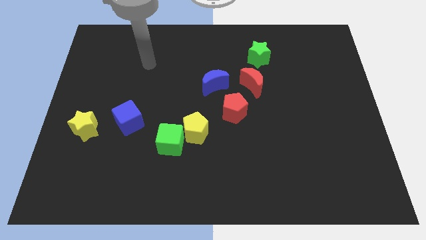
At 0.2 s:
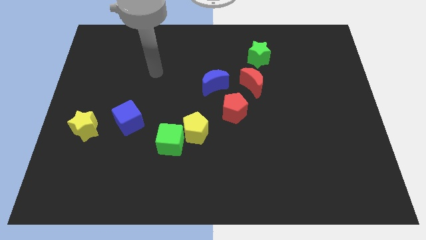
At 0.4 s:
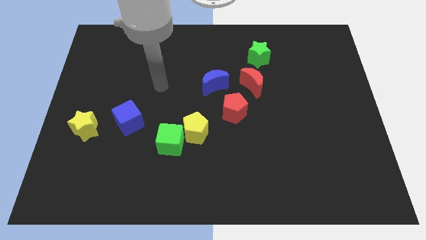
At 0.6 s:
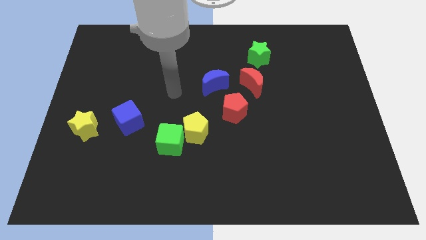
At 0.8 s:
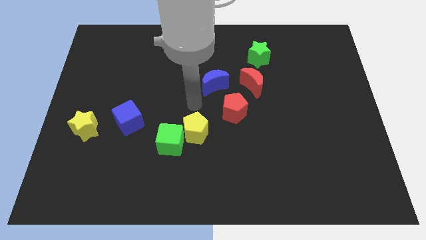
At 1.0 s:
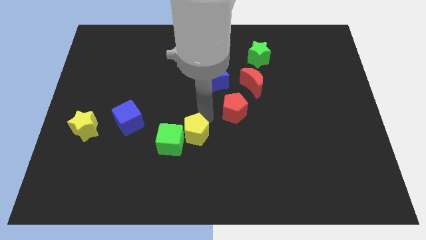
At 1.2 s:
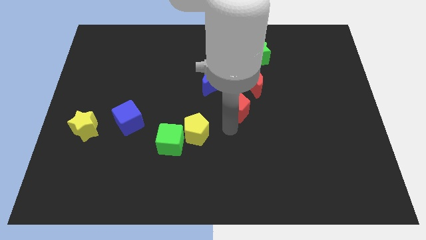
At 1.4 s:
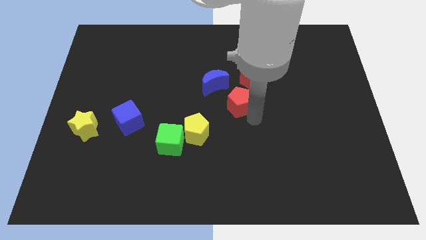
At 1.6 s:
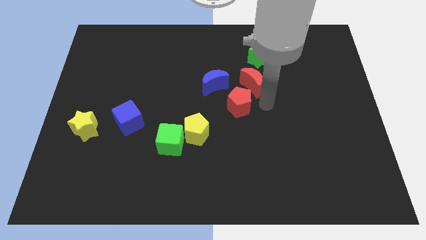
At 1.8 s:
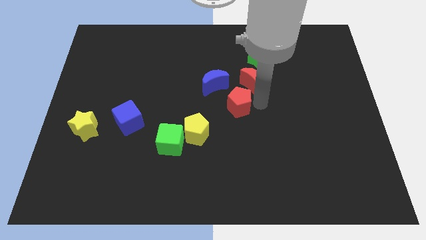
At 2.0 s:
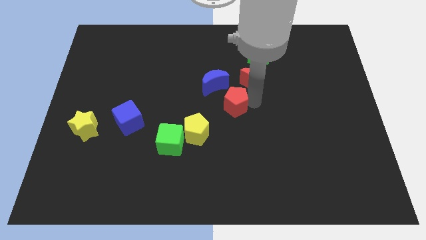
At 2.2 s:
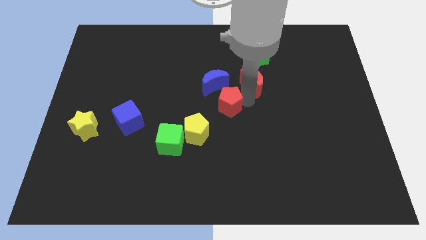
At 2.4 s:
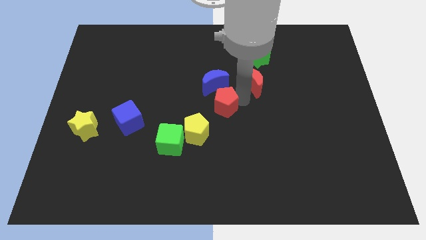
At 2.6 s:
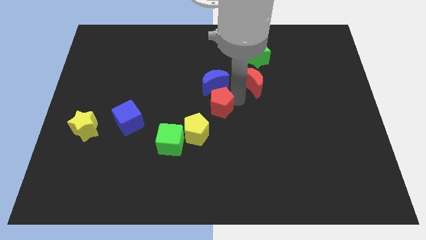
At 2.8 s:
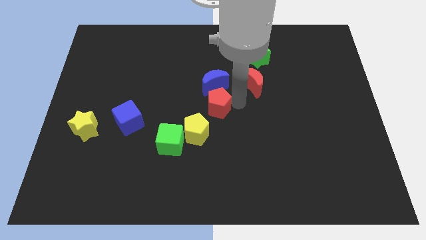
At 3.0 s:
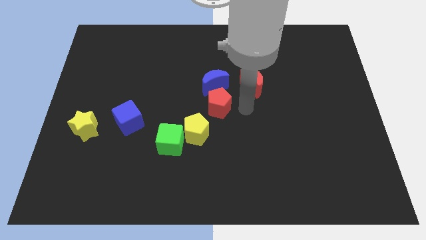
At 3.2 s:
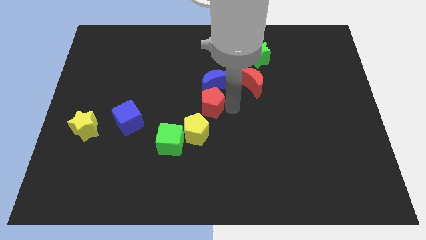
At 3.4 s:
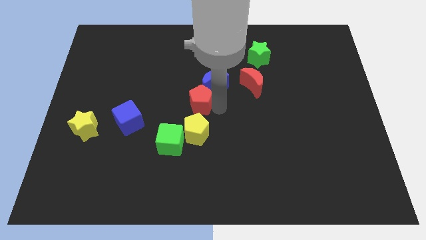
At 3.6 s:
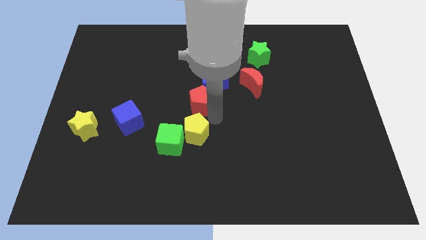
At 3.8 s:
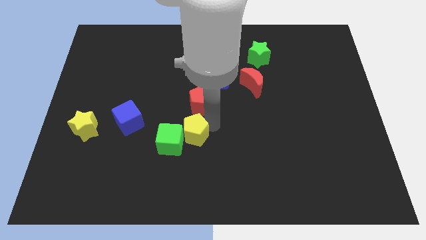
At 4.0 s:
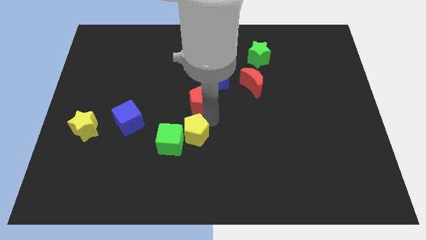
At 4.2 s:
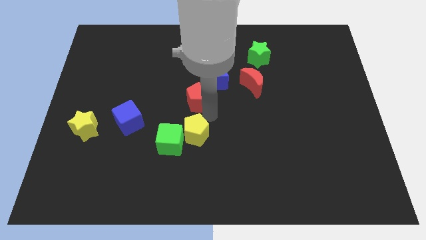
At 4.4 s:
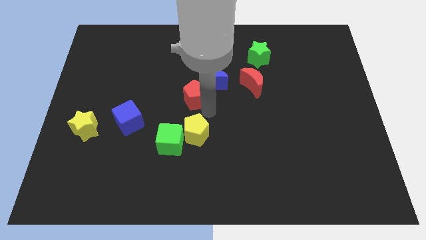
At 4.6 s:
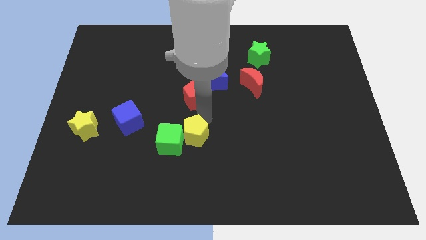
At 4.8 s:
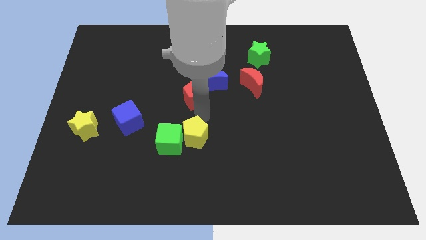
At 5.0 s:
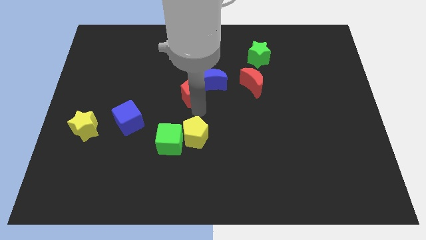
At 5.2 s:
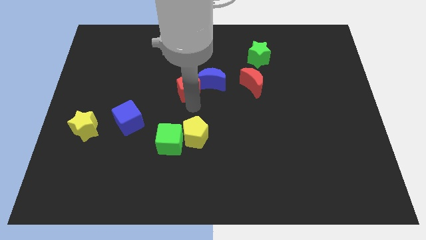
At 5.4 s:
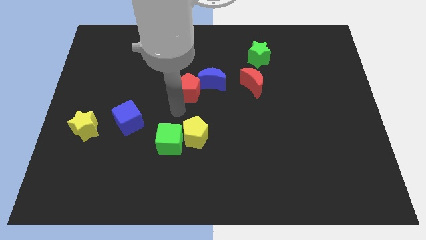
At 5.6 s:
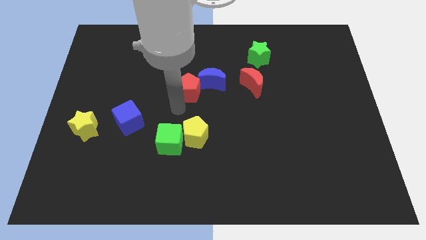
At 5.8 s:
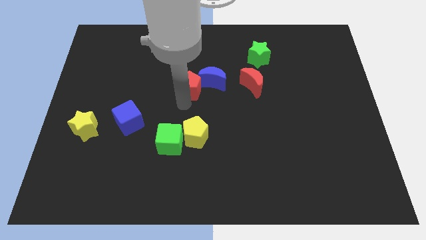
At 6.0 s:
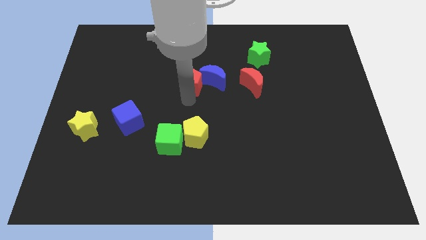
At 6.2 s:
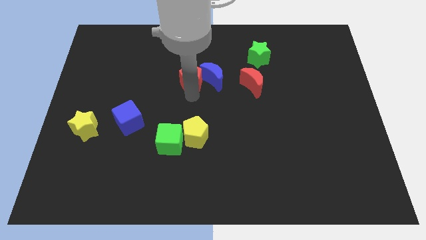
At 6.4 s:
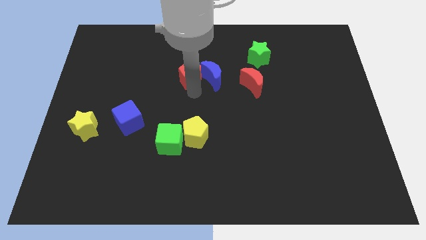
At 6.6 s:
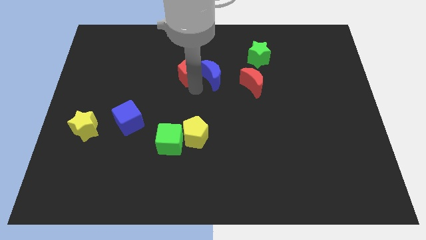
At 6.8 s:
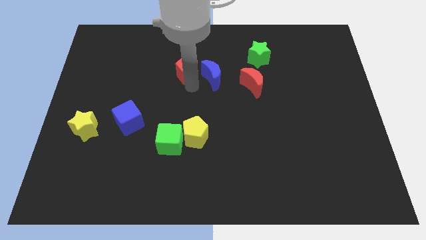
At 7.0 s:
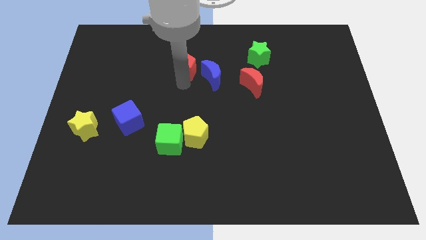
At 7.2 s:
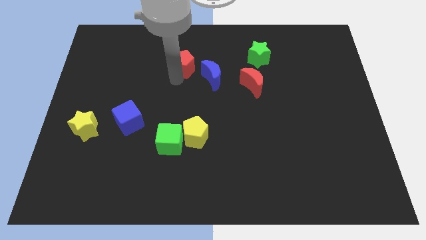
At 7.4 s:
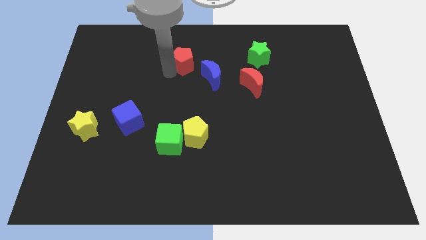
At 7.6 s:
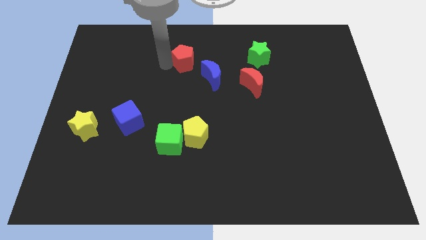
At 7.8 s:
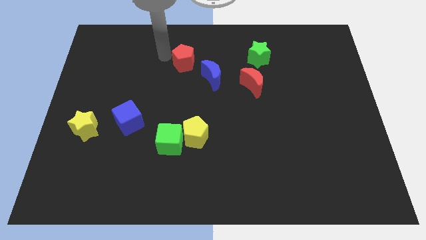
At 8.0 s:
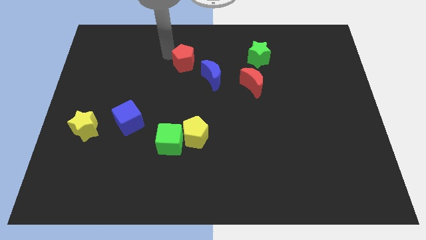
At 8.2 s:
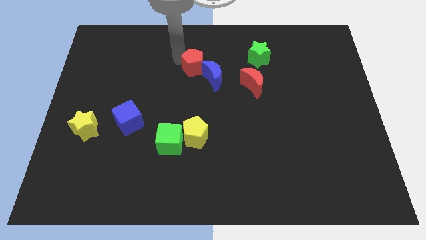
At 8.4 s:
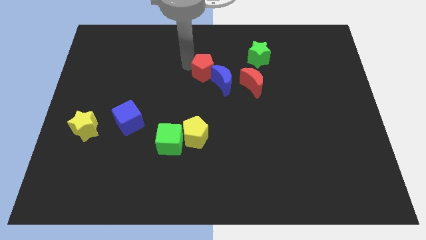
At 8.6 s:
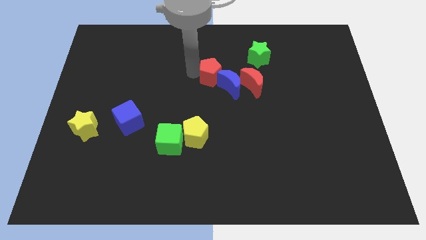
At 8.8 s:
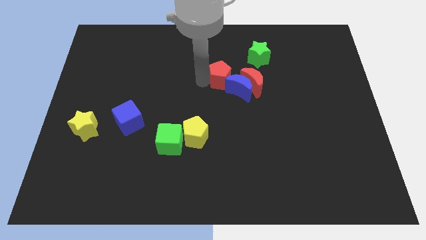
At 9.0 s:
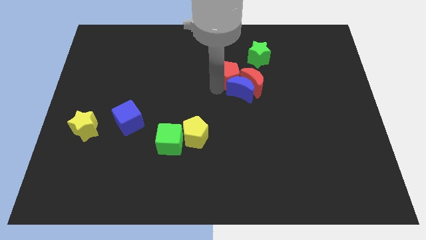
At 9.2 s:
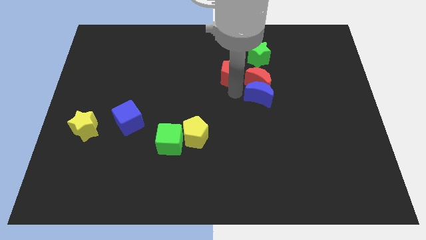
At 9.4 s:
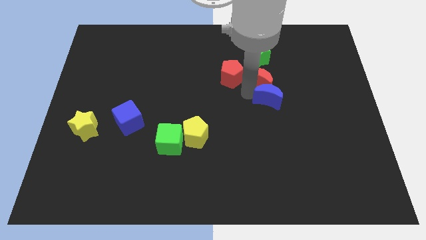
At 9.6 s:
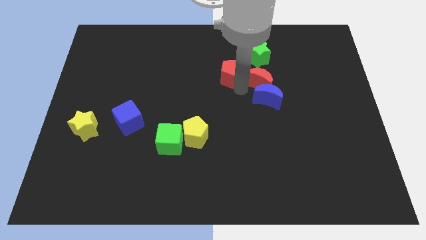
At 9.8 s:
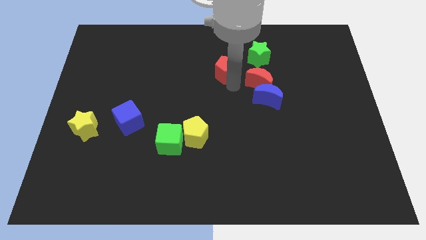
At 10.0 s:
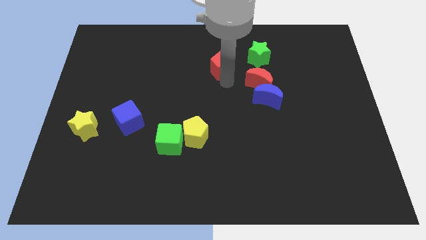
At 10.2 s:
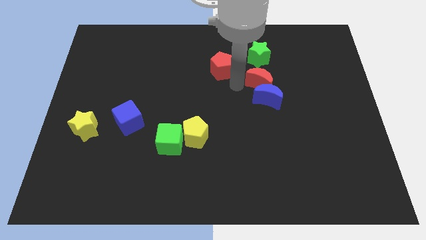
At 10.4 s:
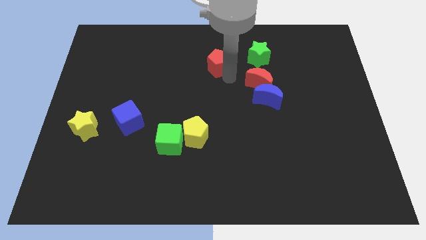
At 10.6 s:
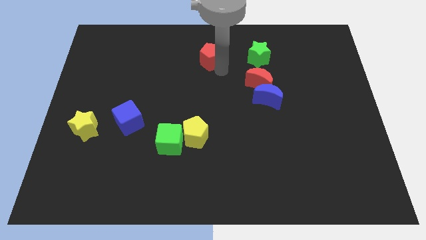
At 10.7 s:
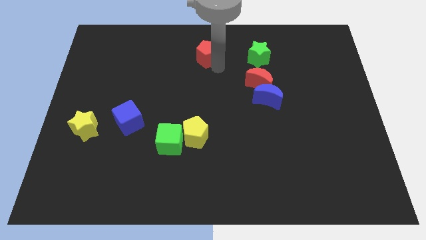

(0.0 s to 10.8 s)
push the red pentagon to the towards your base

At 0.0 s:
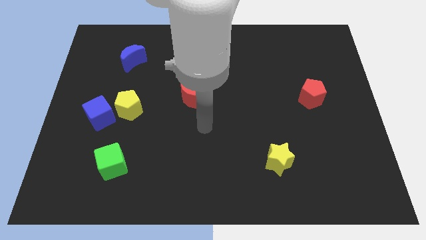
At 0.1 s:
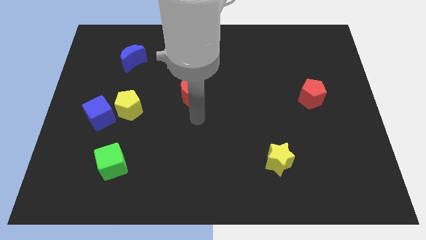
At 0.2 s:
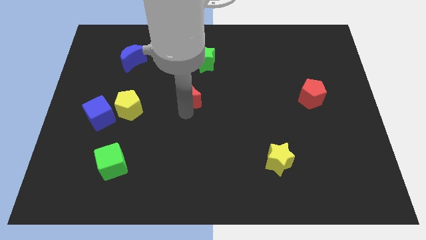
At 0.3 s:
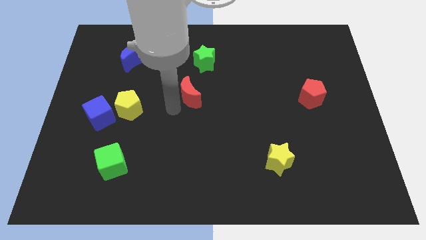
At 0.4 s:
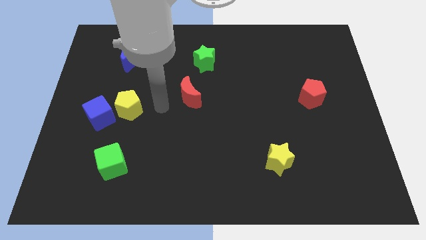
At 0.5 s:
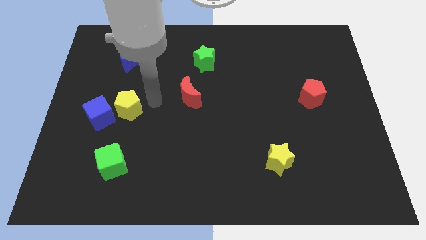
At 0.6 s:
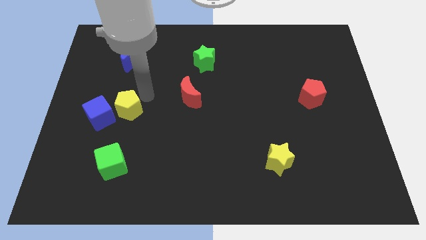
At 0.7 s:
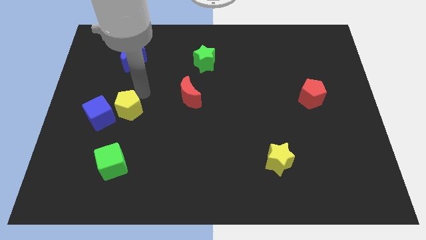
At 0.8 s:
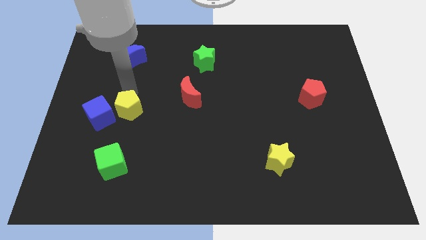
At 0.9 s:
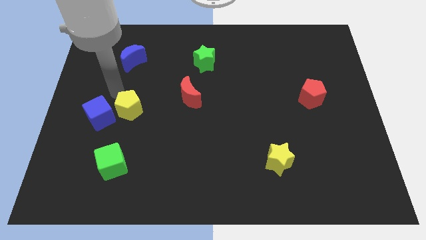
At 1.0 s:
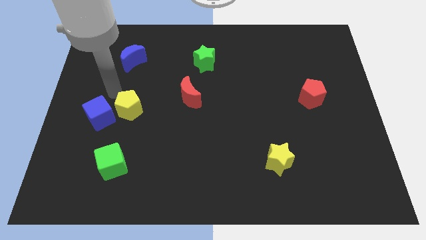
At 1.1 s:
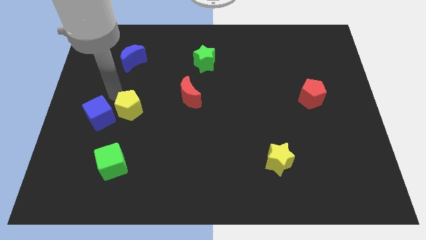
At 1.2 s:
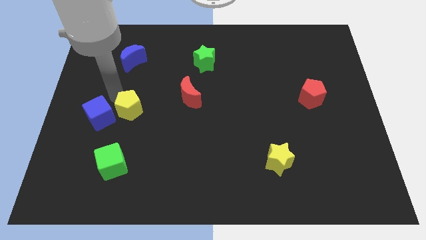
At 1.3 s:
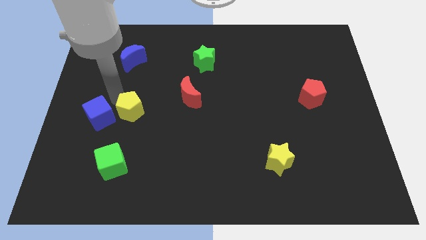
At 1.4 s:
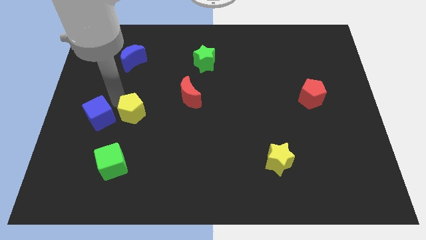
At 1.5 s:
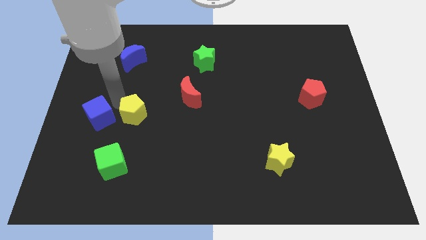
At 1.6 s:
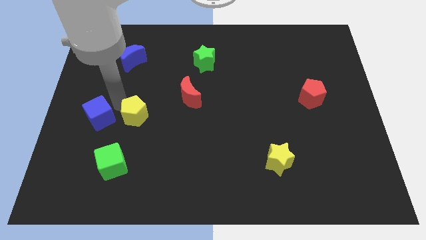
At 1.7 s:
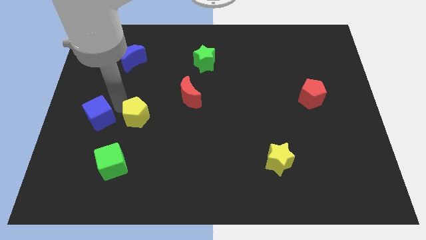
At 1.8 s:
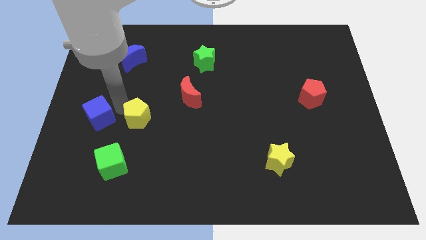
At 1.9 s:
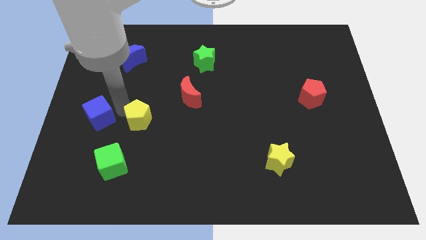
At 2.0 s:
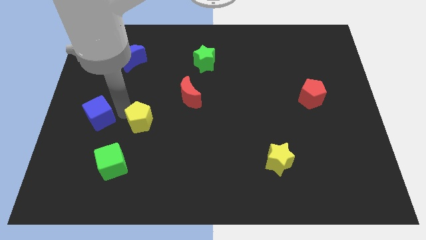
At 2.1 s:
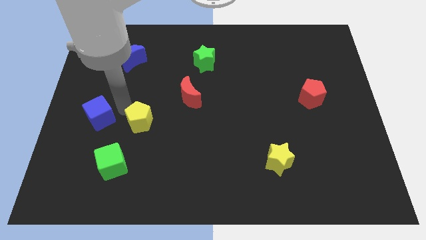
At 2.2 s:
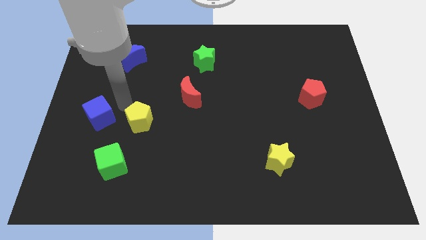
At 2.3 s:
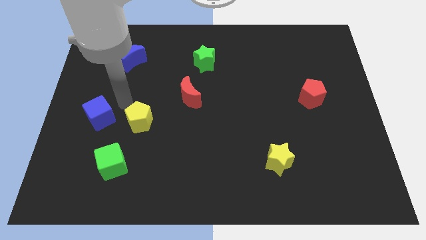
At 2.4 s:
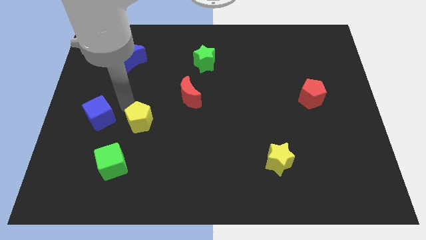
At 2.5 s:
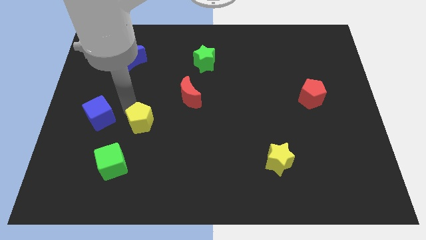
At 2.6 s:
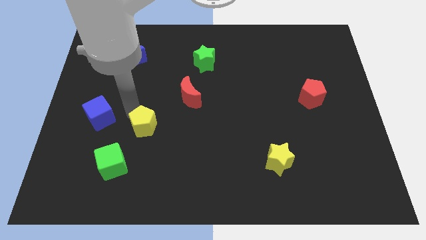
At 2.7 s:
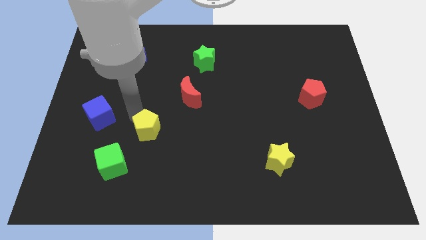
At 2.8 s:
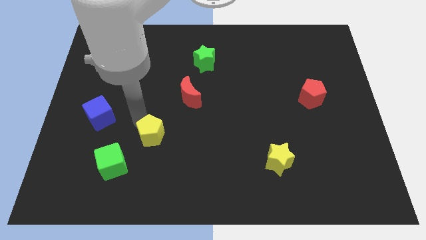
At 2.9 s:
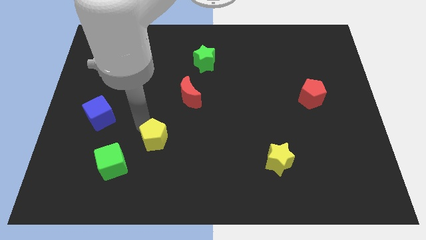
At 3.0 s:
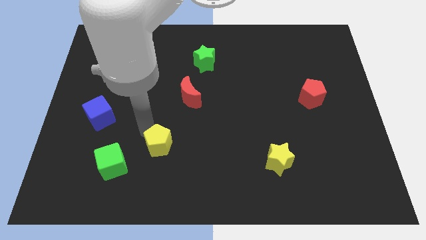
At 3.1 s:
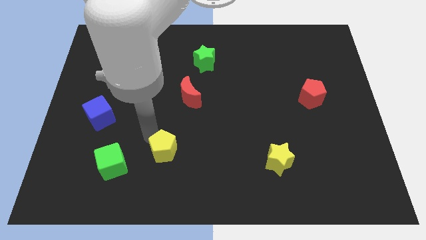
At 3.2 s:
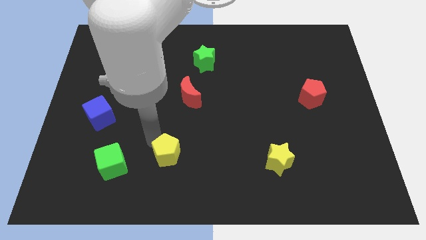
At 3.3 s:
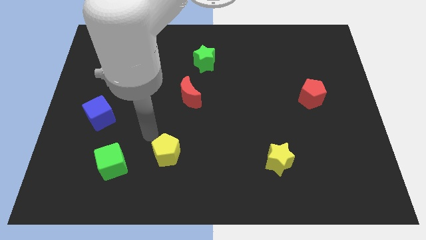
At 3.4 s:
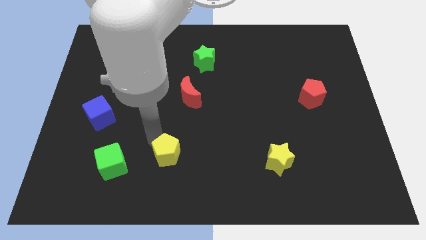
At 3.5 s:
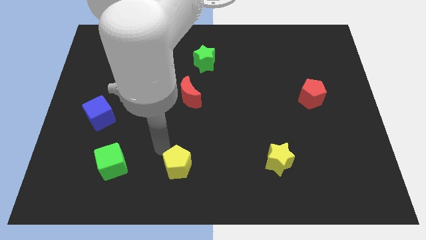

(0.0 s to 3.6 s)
push the yellow pentagon to the bottom side
